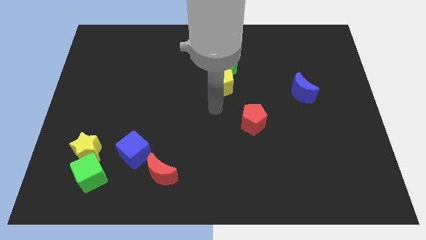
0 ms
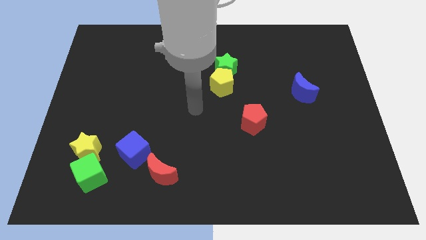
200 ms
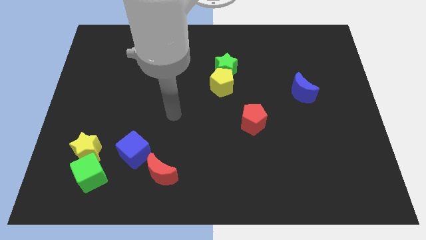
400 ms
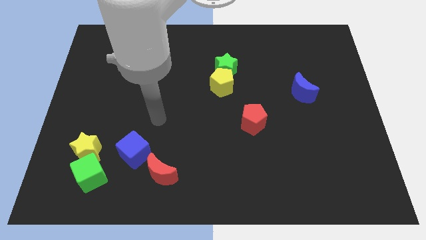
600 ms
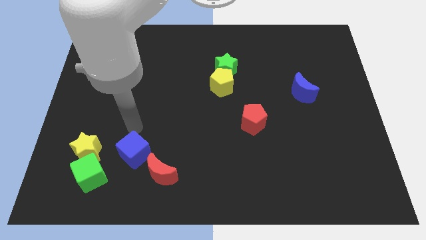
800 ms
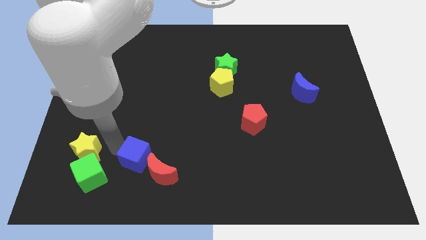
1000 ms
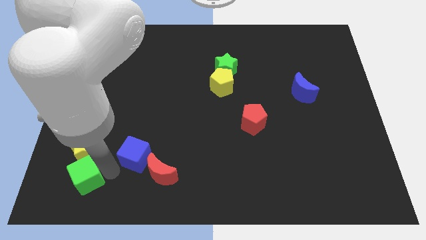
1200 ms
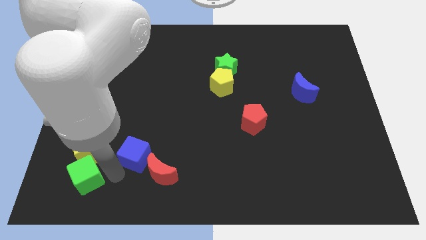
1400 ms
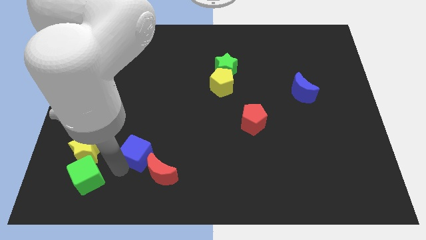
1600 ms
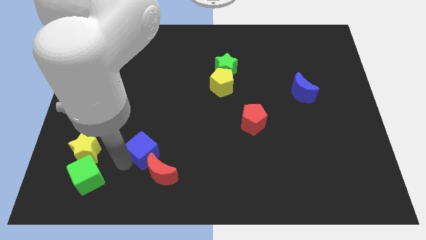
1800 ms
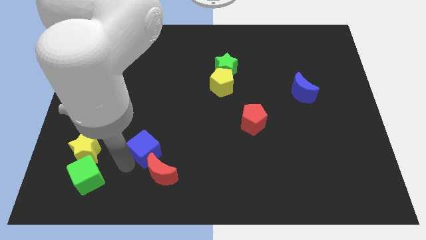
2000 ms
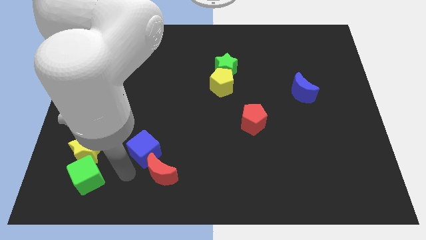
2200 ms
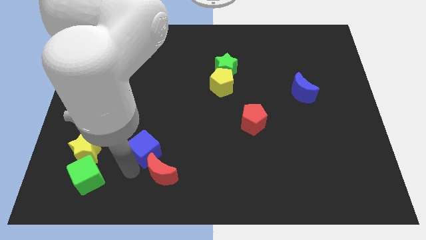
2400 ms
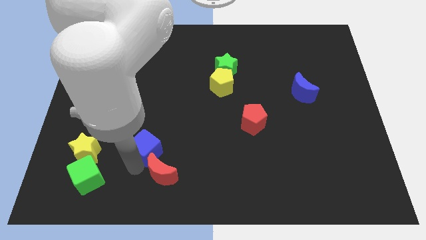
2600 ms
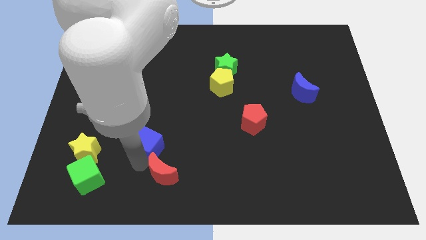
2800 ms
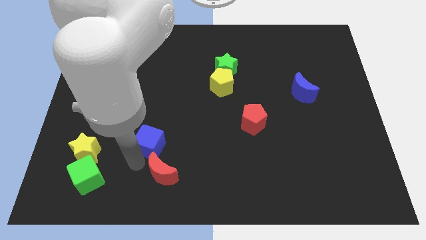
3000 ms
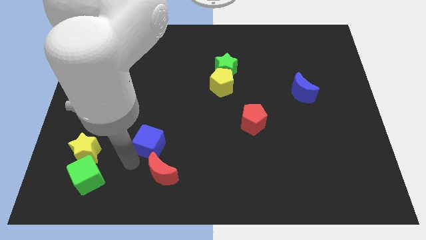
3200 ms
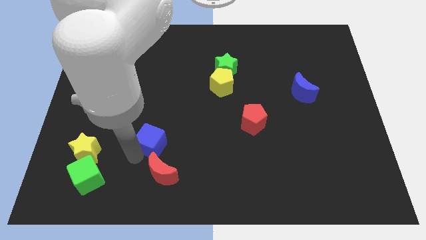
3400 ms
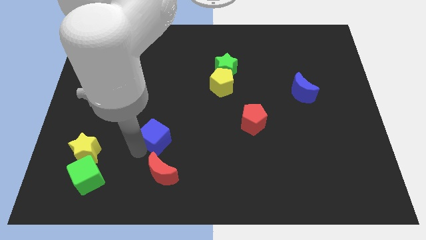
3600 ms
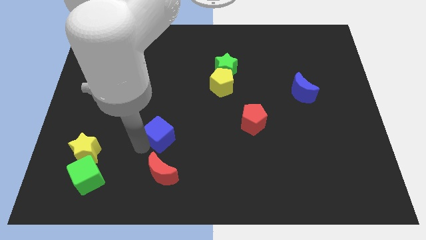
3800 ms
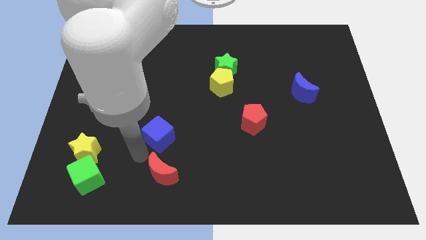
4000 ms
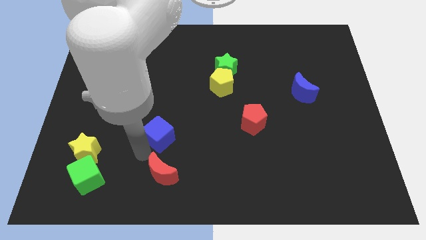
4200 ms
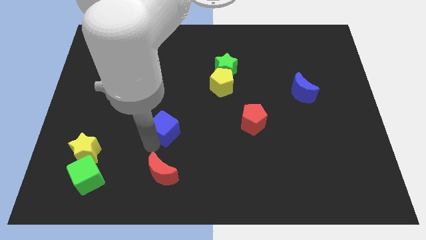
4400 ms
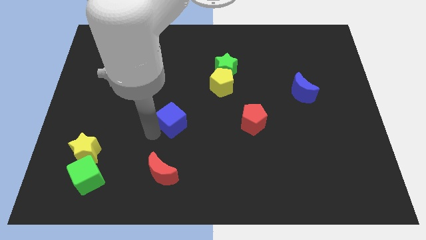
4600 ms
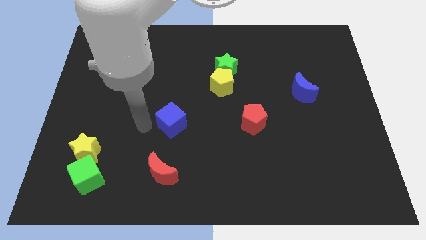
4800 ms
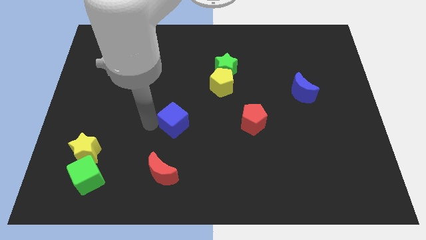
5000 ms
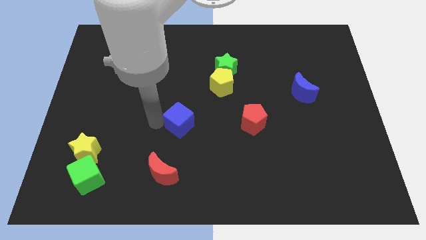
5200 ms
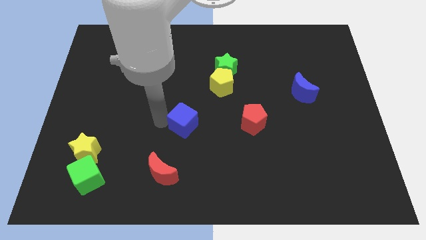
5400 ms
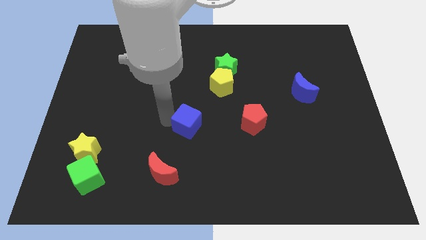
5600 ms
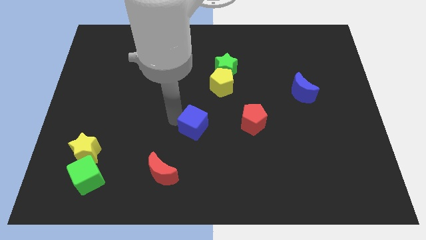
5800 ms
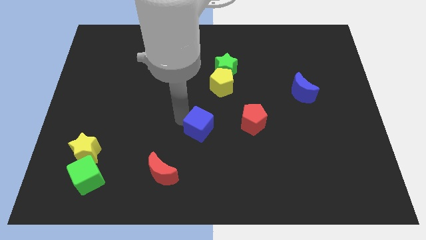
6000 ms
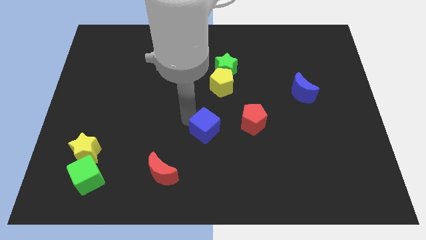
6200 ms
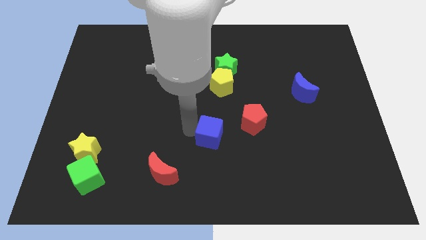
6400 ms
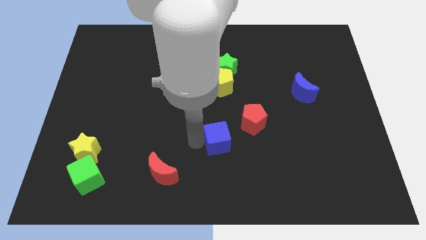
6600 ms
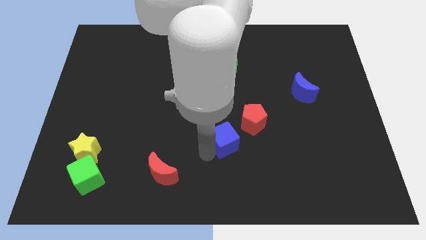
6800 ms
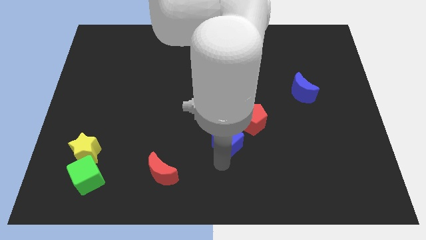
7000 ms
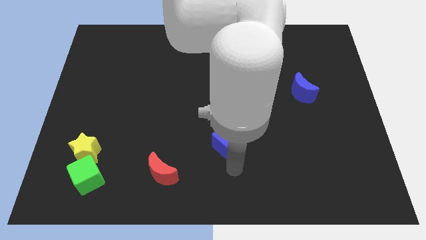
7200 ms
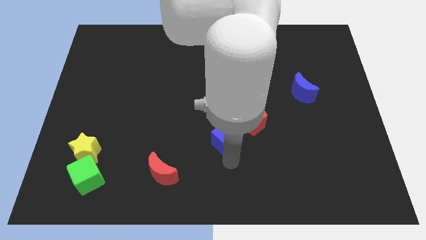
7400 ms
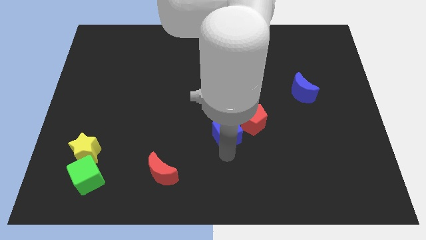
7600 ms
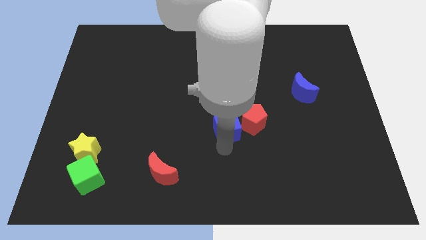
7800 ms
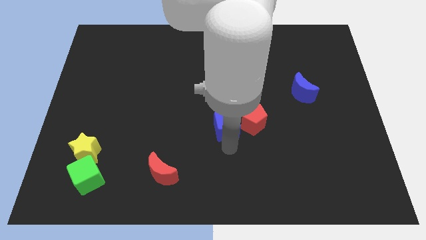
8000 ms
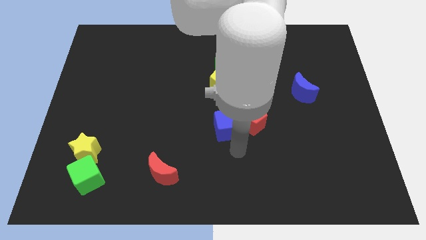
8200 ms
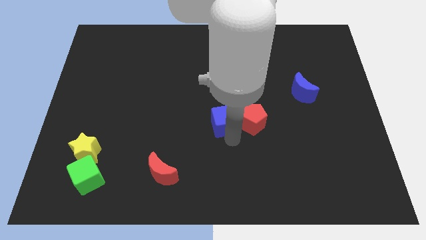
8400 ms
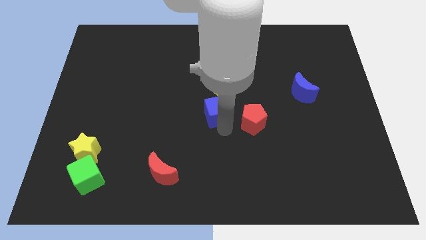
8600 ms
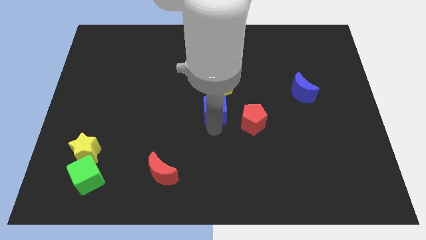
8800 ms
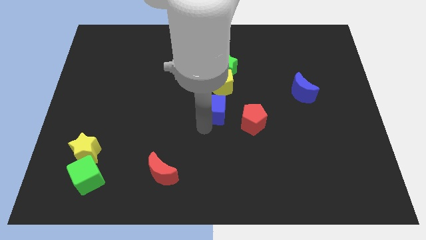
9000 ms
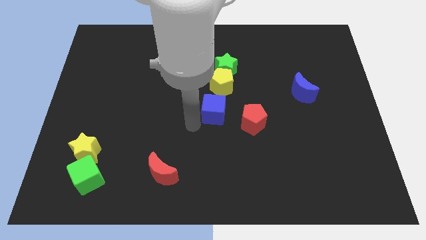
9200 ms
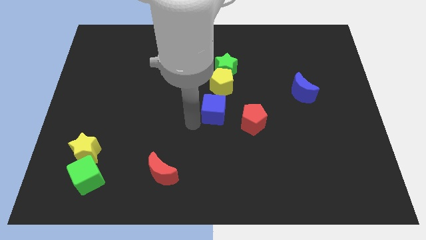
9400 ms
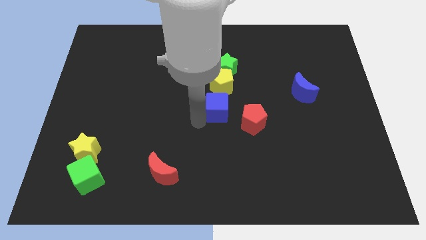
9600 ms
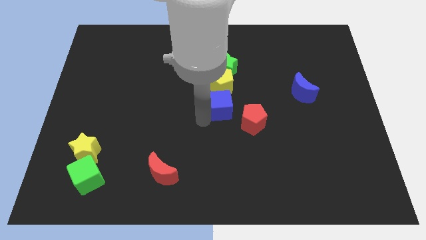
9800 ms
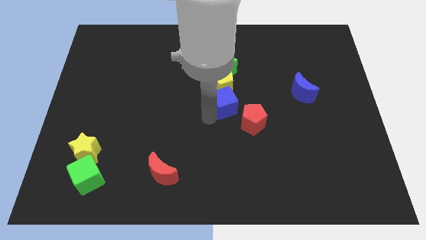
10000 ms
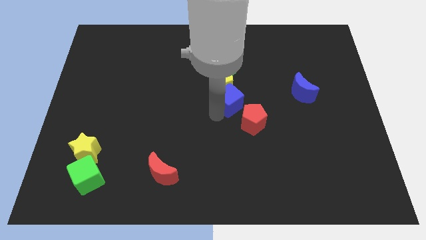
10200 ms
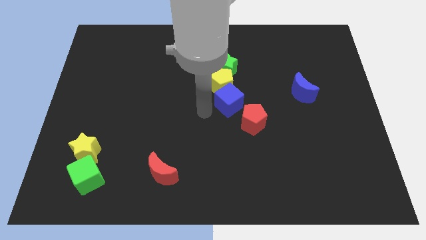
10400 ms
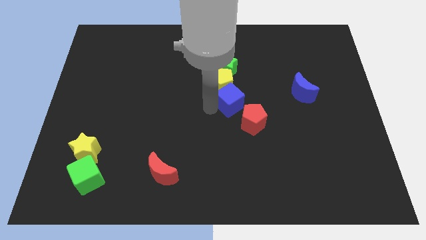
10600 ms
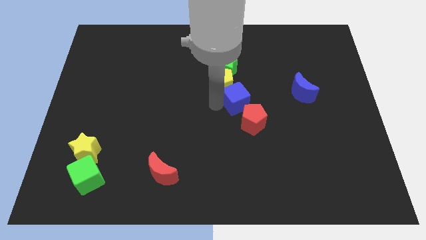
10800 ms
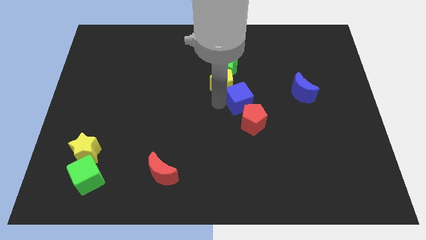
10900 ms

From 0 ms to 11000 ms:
slide the blue cube to the left of the blue moon
